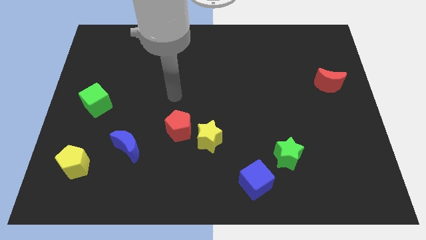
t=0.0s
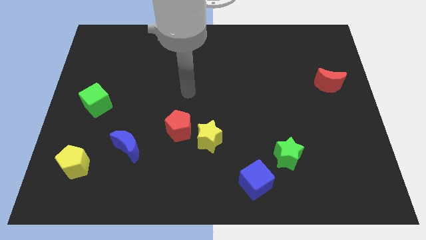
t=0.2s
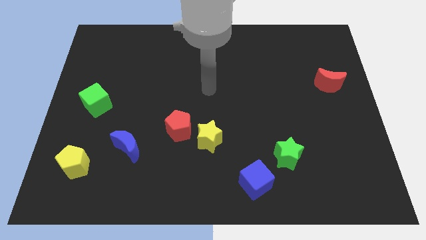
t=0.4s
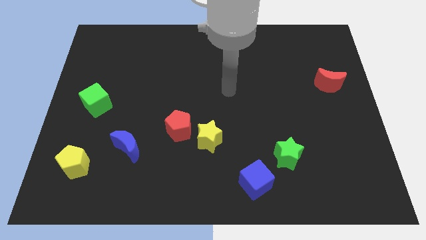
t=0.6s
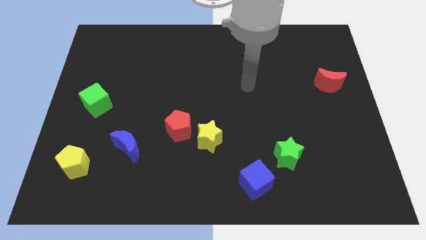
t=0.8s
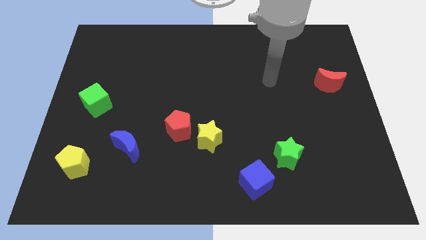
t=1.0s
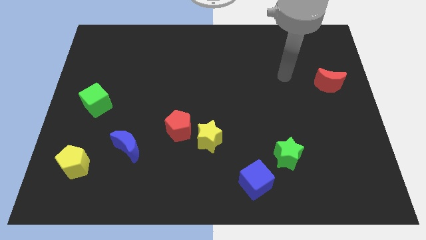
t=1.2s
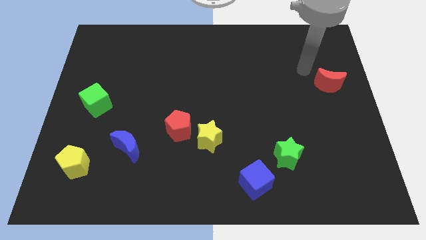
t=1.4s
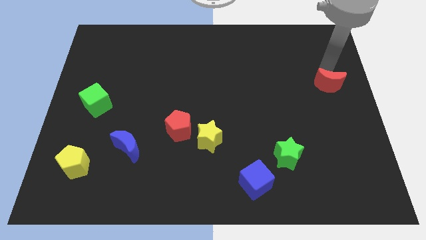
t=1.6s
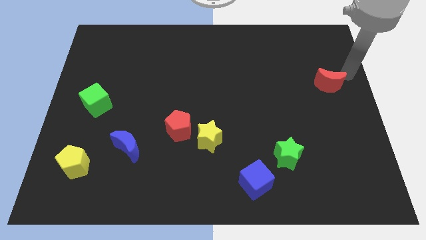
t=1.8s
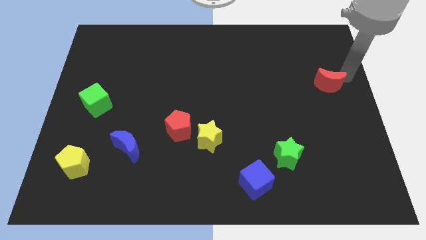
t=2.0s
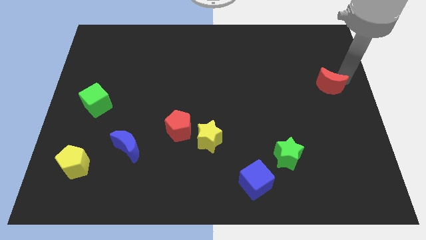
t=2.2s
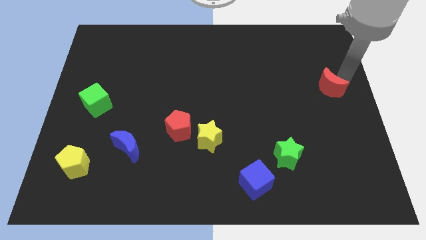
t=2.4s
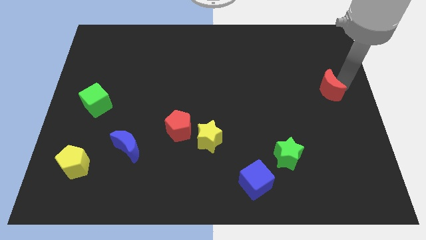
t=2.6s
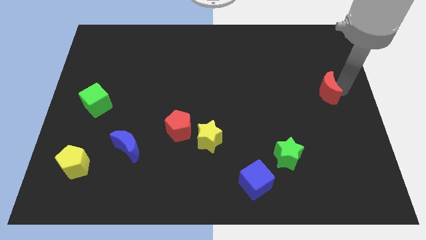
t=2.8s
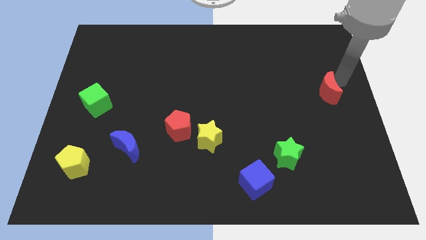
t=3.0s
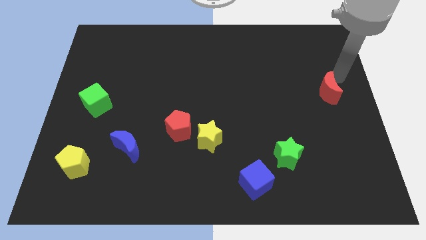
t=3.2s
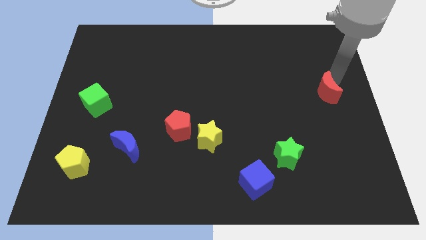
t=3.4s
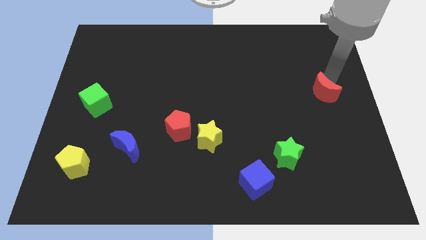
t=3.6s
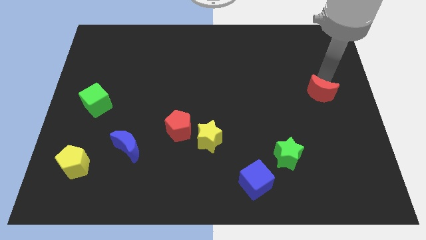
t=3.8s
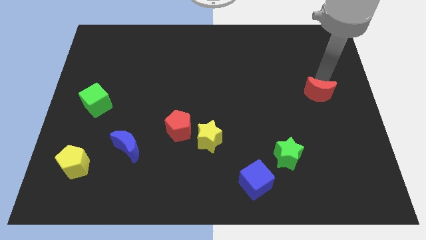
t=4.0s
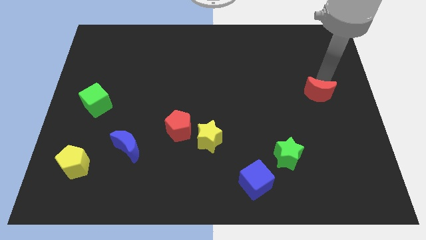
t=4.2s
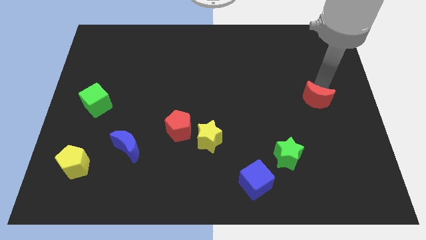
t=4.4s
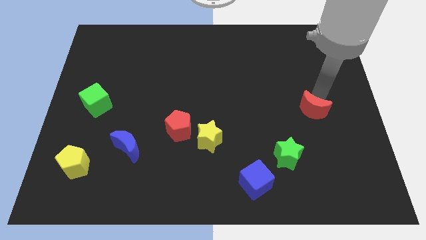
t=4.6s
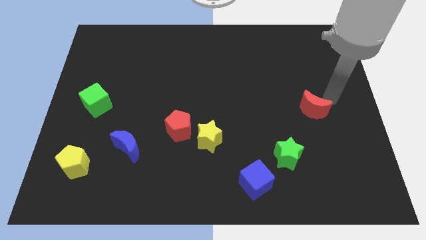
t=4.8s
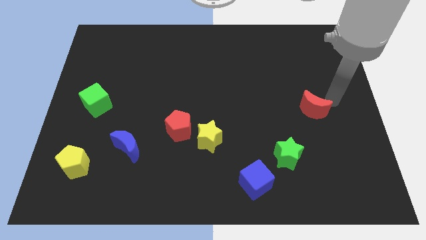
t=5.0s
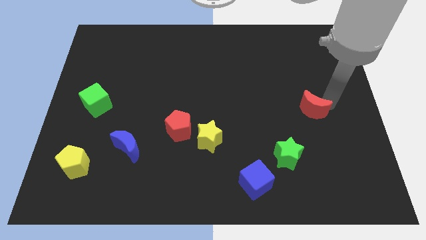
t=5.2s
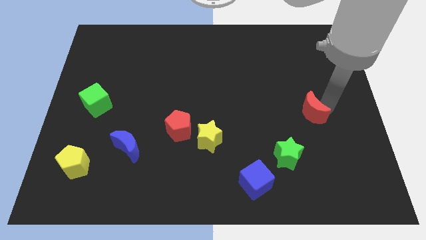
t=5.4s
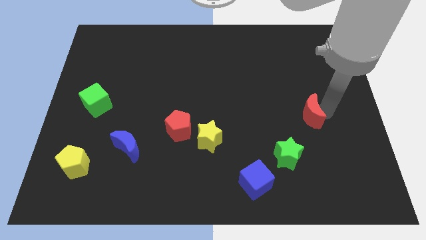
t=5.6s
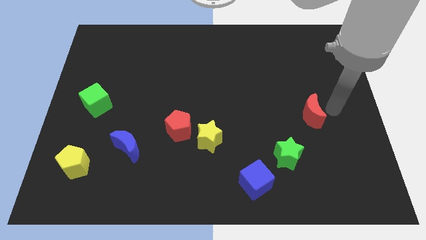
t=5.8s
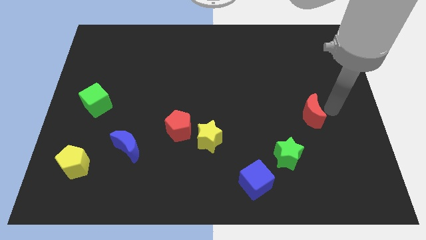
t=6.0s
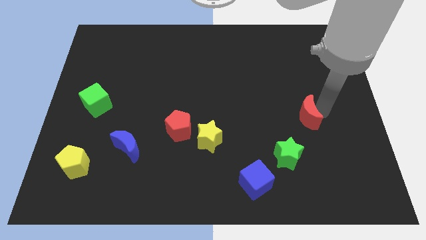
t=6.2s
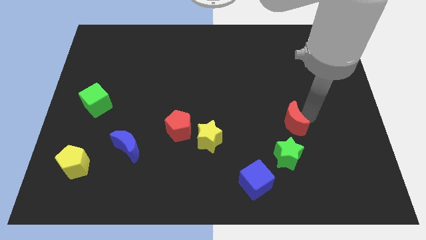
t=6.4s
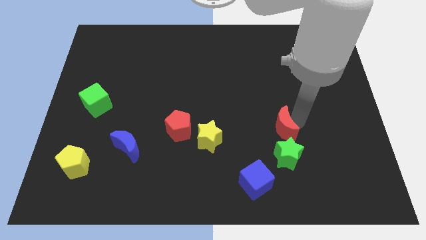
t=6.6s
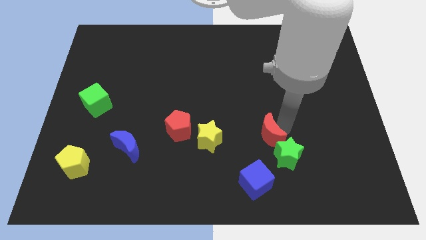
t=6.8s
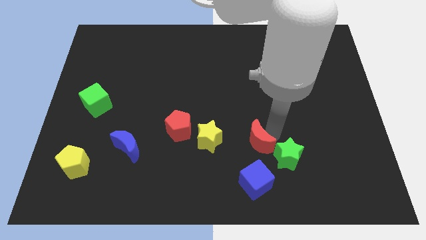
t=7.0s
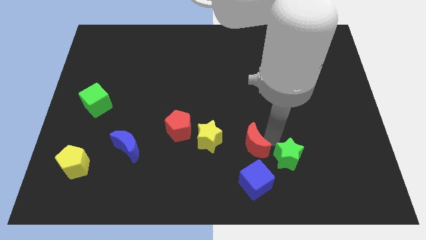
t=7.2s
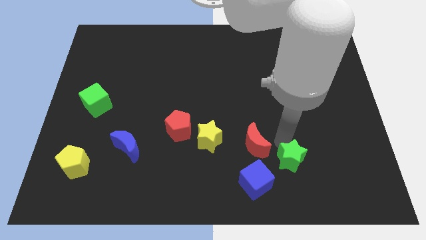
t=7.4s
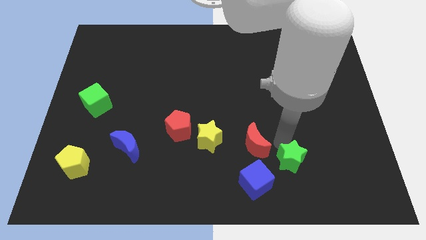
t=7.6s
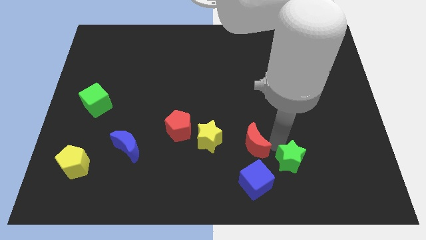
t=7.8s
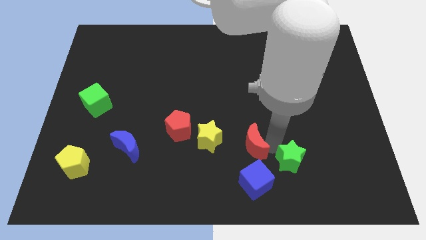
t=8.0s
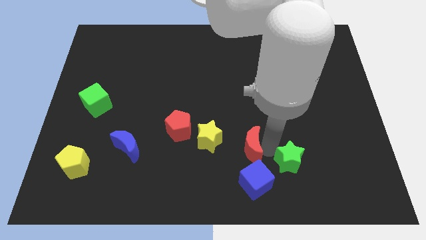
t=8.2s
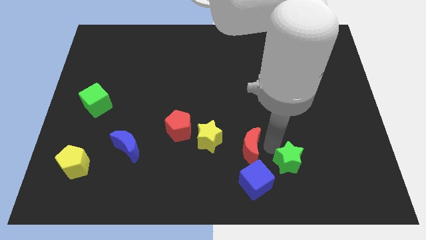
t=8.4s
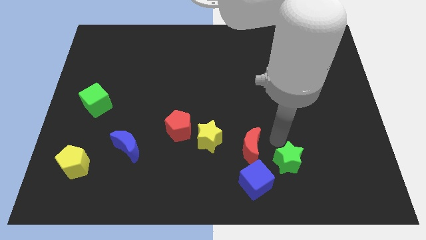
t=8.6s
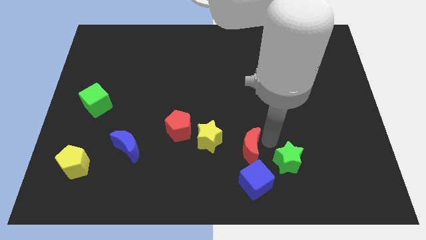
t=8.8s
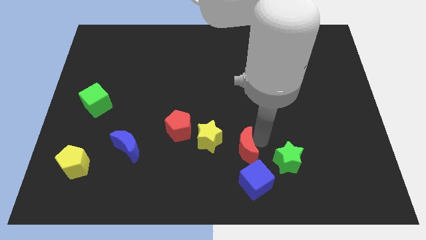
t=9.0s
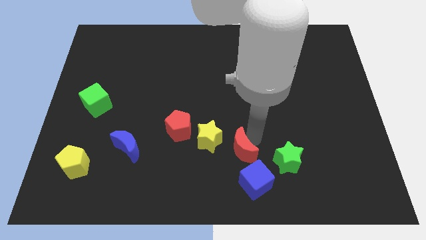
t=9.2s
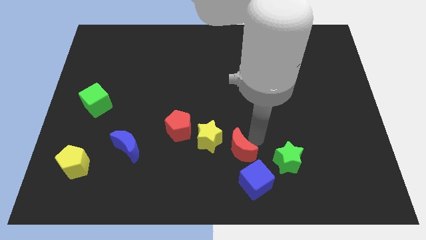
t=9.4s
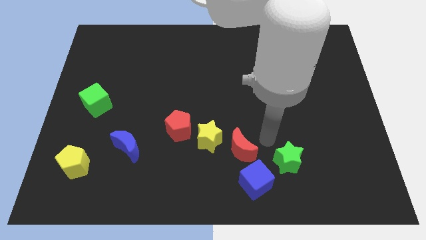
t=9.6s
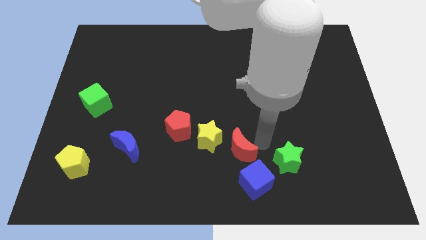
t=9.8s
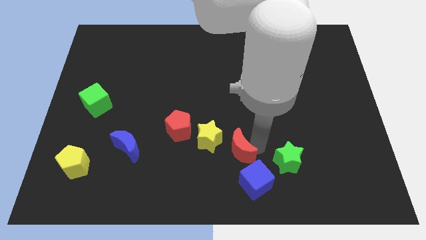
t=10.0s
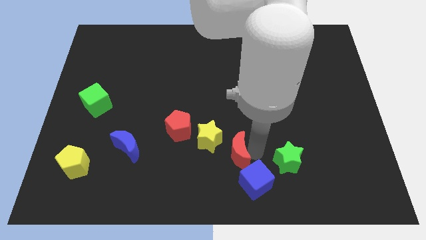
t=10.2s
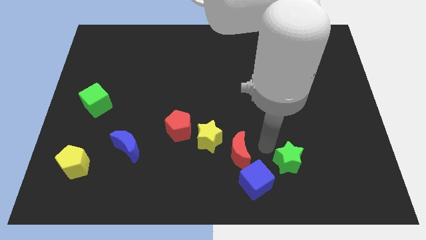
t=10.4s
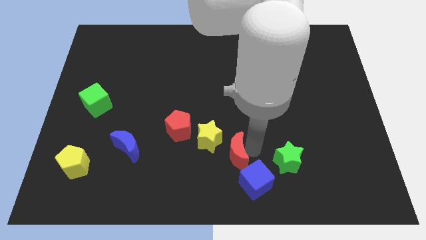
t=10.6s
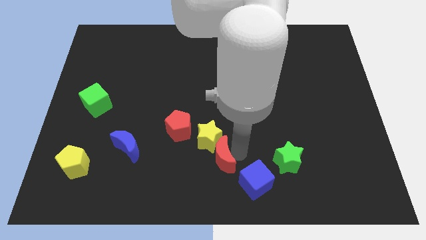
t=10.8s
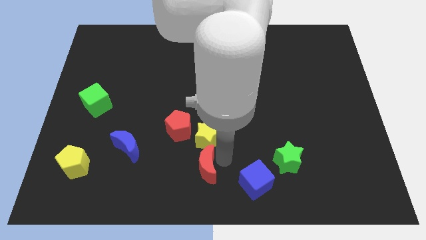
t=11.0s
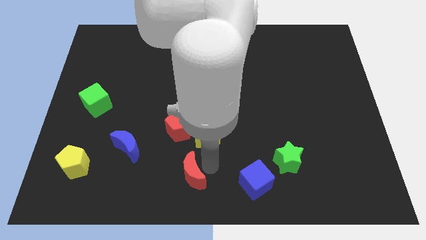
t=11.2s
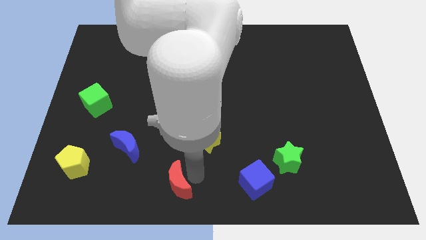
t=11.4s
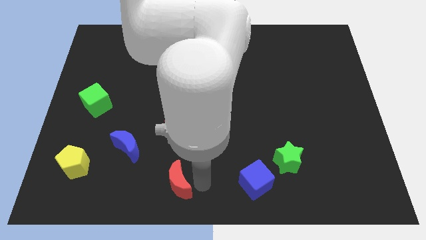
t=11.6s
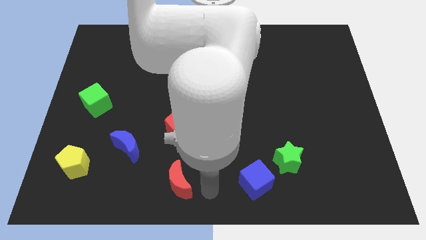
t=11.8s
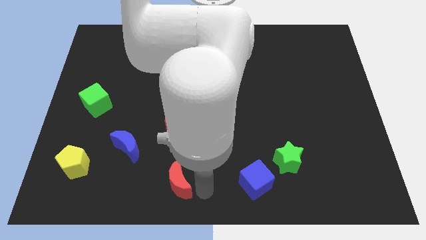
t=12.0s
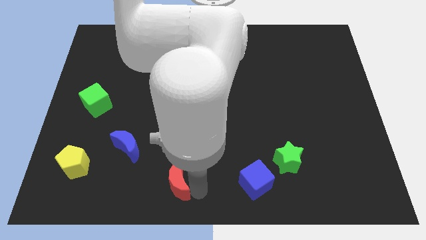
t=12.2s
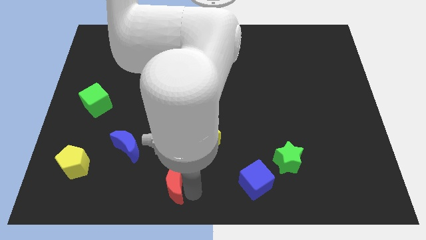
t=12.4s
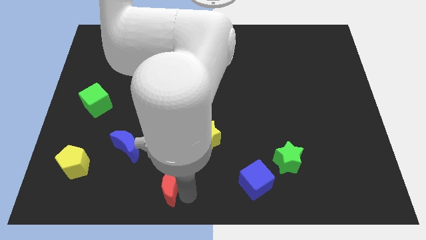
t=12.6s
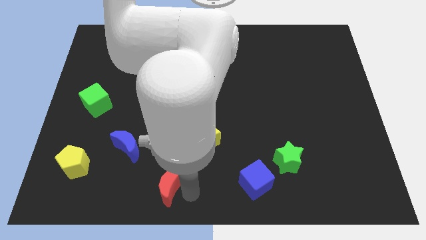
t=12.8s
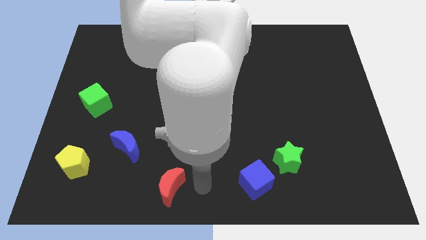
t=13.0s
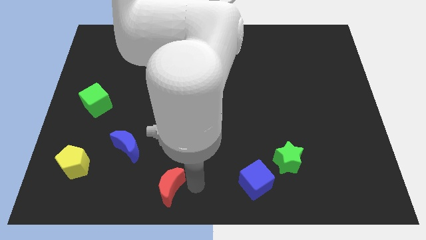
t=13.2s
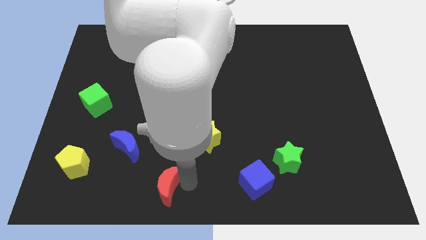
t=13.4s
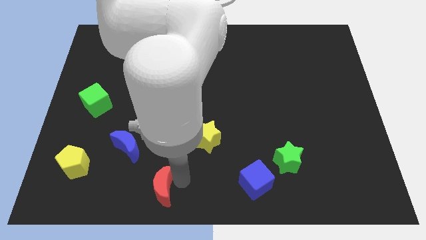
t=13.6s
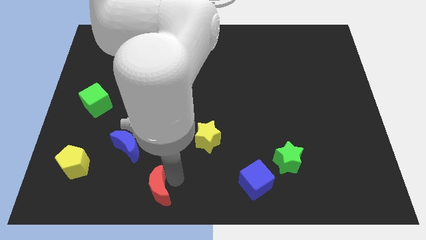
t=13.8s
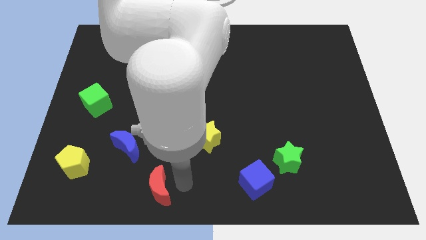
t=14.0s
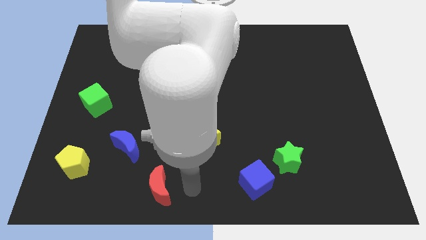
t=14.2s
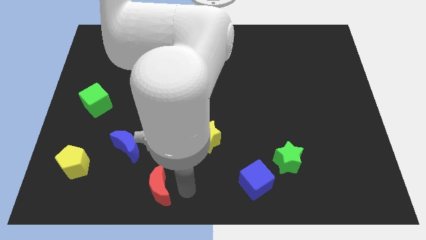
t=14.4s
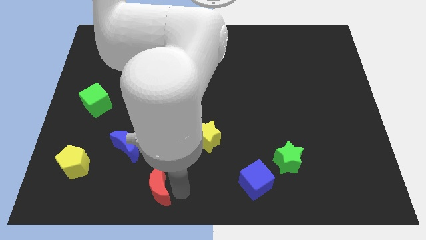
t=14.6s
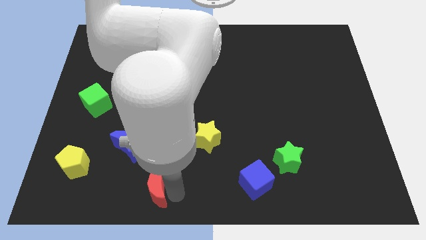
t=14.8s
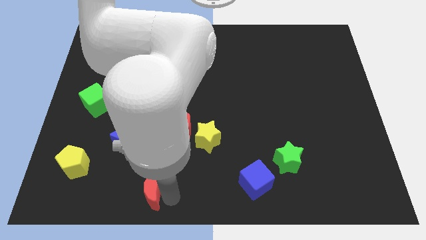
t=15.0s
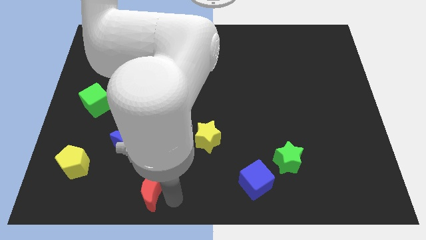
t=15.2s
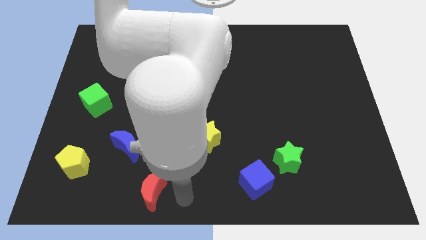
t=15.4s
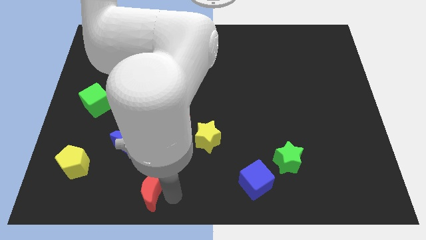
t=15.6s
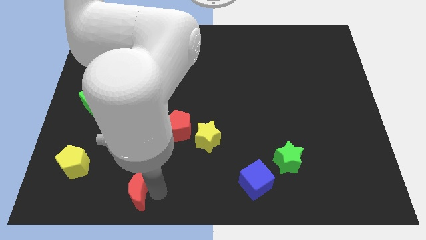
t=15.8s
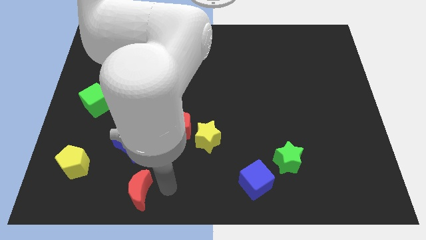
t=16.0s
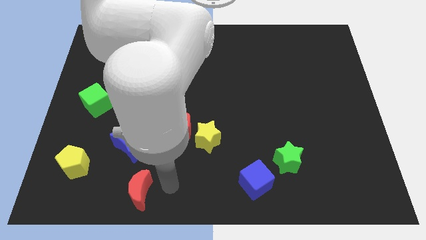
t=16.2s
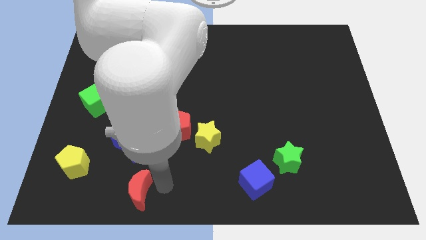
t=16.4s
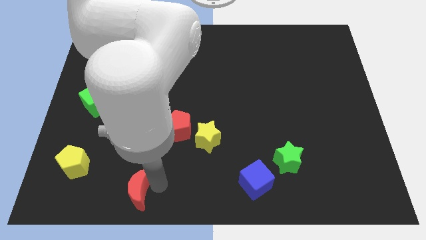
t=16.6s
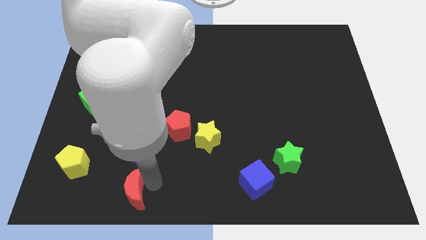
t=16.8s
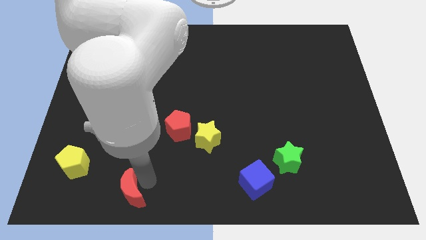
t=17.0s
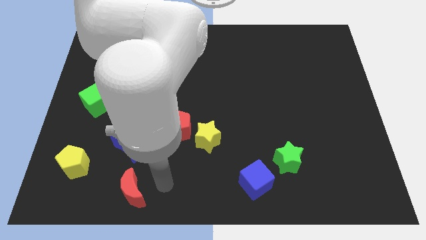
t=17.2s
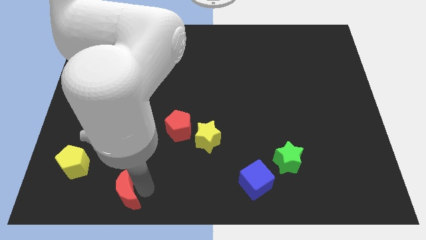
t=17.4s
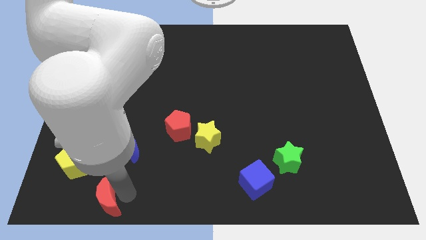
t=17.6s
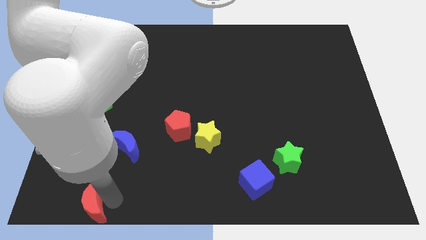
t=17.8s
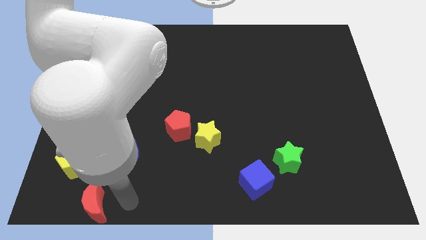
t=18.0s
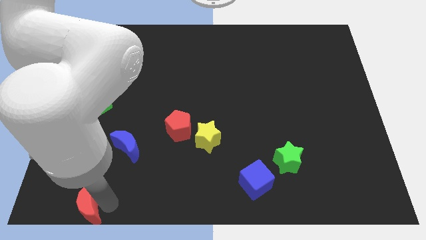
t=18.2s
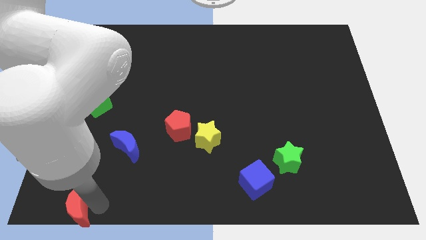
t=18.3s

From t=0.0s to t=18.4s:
push the red moon to the bottom left
